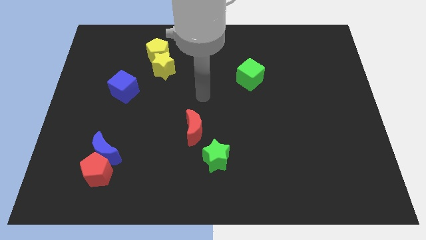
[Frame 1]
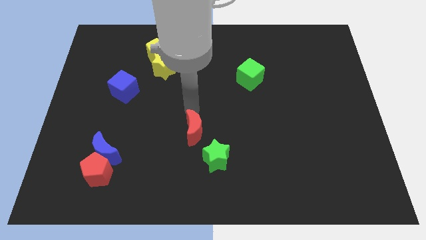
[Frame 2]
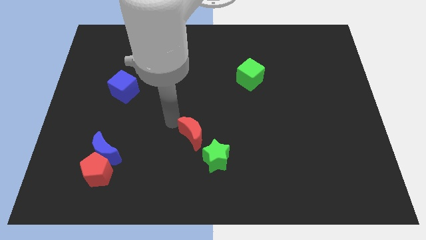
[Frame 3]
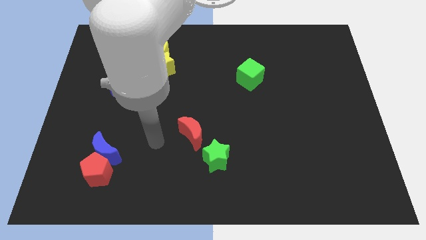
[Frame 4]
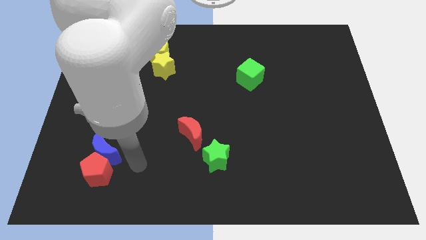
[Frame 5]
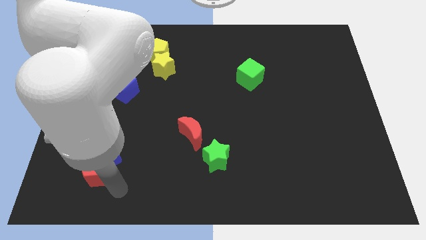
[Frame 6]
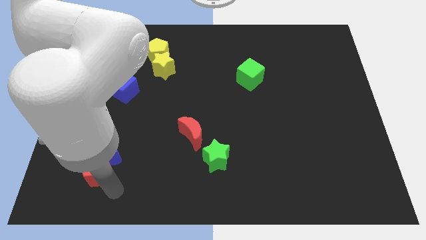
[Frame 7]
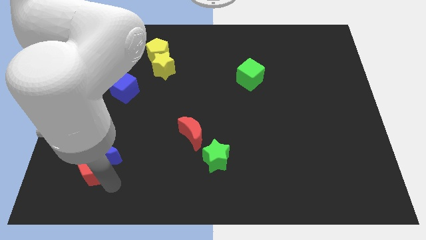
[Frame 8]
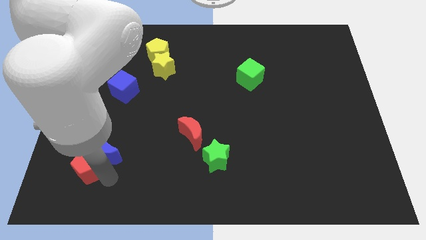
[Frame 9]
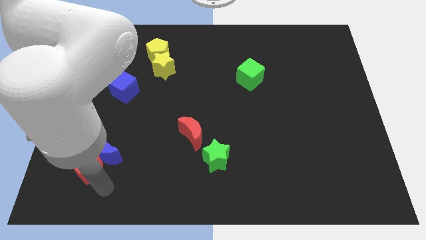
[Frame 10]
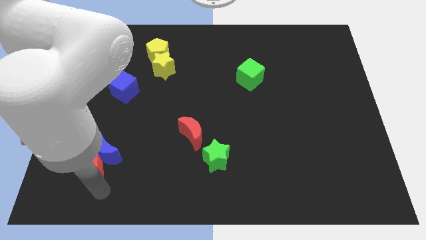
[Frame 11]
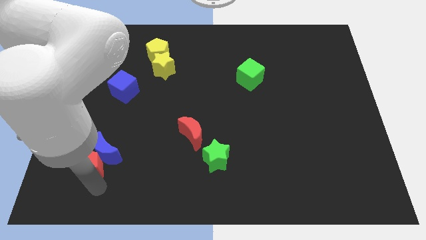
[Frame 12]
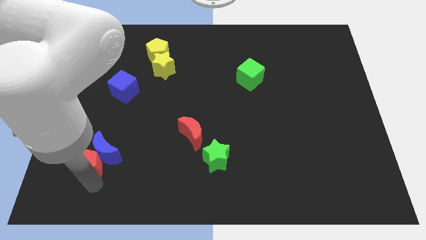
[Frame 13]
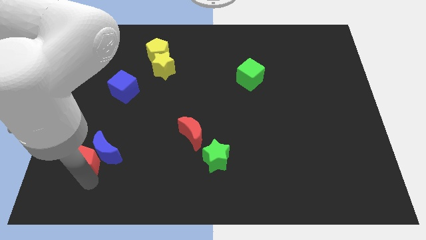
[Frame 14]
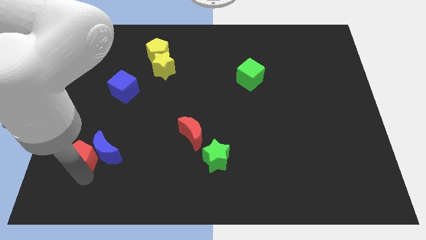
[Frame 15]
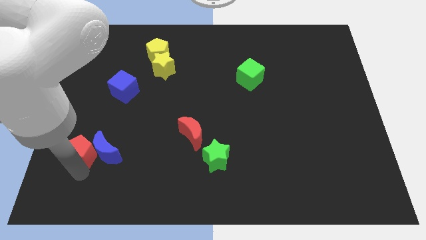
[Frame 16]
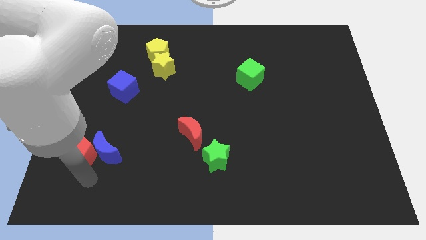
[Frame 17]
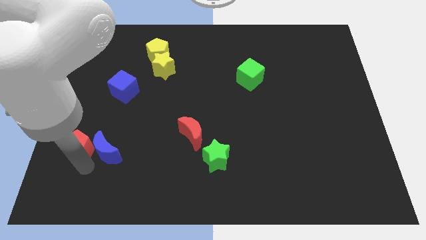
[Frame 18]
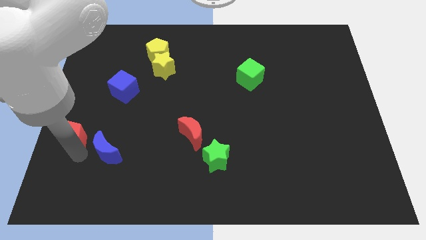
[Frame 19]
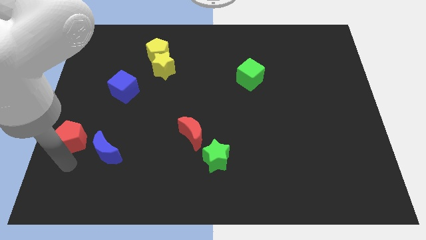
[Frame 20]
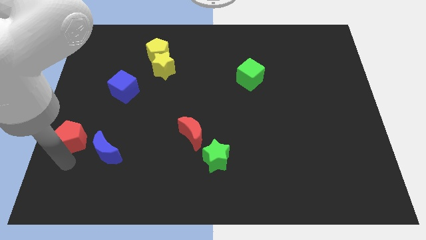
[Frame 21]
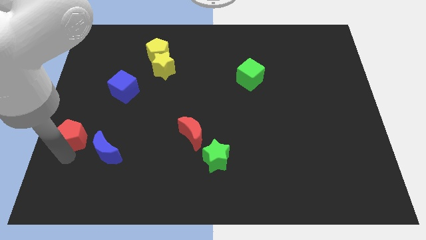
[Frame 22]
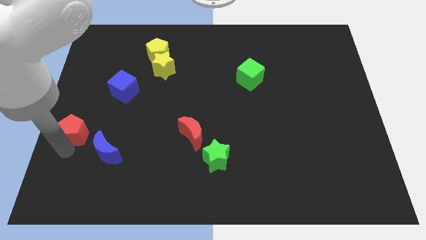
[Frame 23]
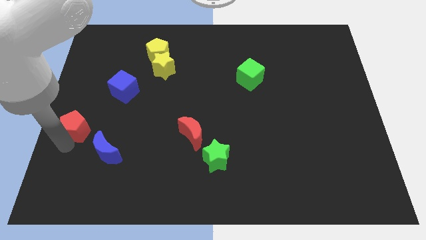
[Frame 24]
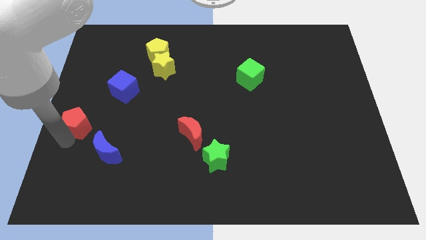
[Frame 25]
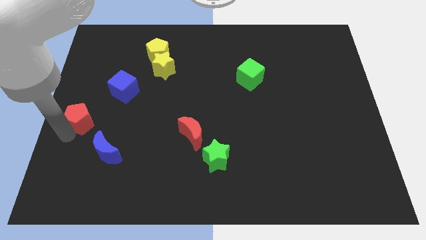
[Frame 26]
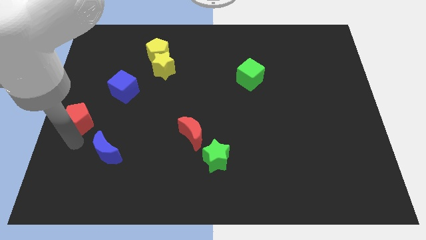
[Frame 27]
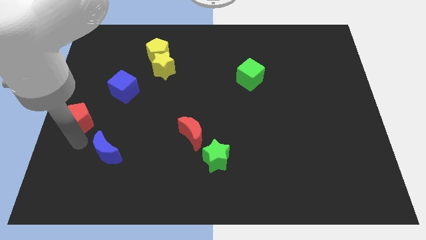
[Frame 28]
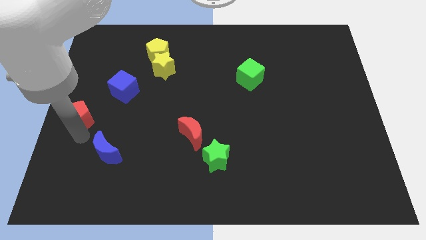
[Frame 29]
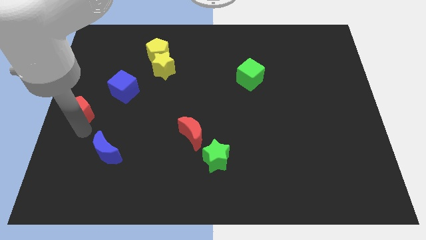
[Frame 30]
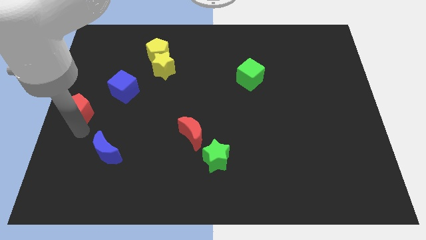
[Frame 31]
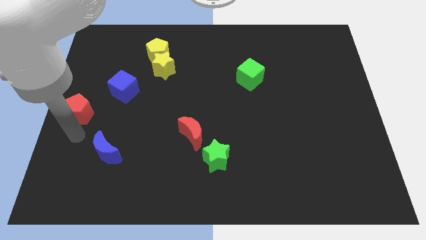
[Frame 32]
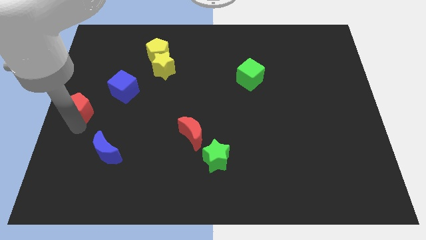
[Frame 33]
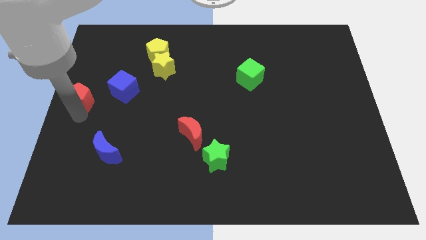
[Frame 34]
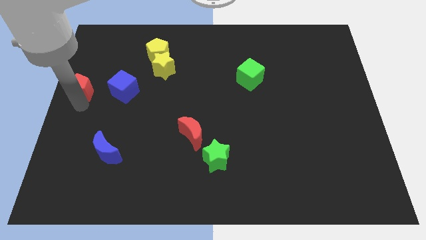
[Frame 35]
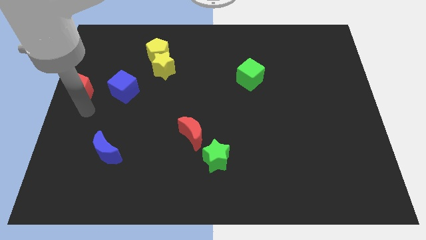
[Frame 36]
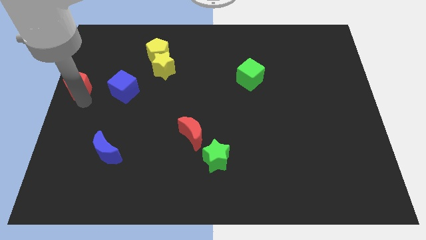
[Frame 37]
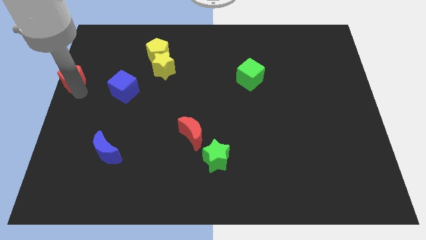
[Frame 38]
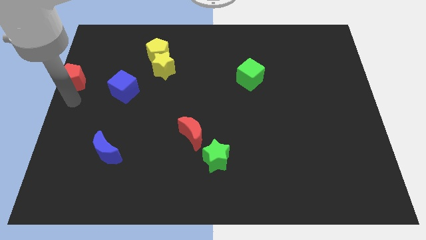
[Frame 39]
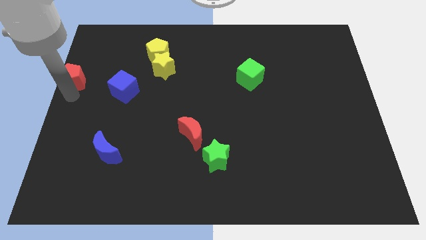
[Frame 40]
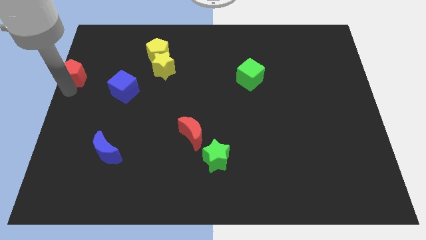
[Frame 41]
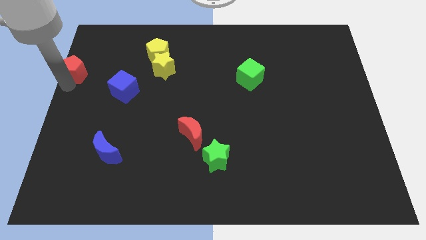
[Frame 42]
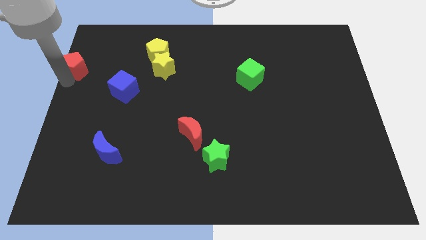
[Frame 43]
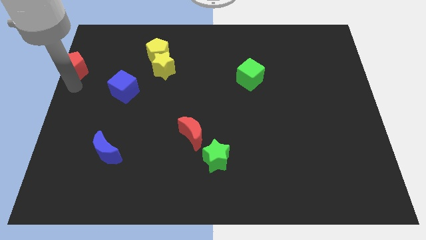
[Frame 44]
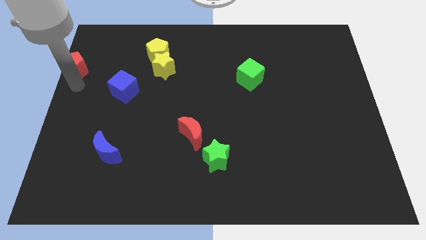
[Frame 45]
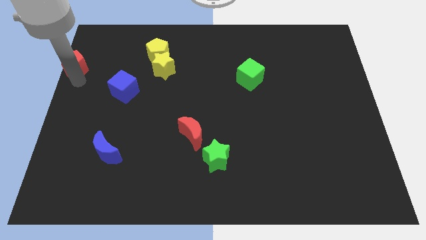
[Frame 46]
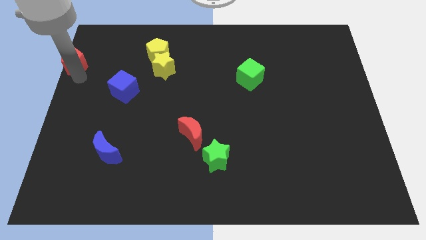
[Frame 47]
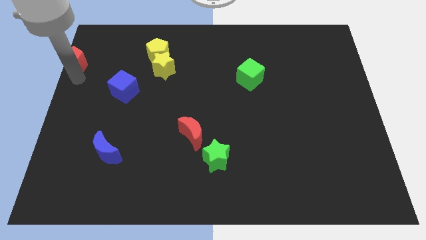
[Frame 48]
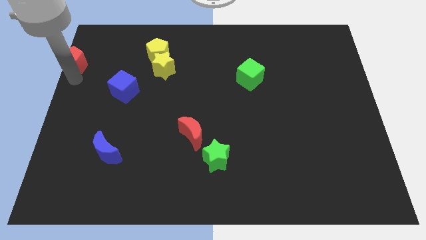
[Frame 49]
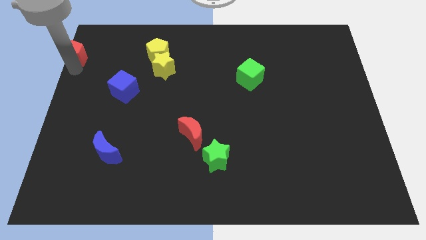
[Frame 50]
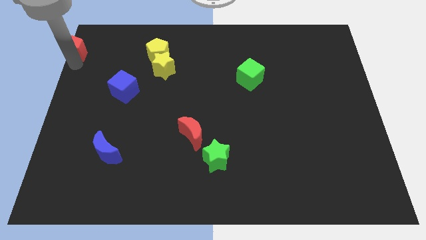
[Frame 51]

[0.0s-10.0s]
push the red pentagon to the top left

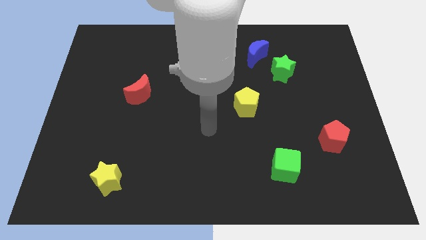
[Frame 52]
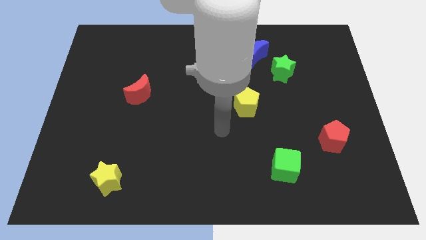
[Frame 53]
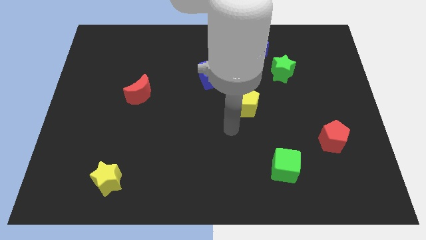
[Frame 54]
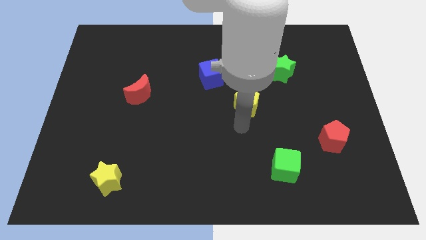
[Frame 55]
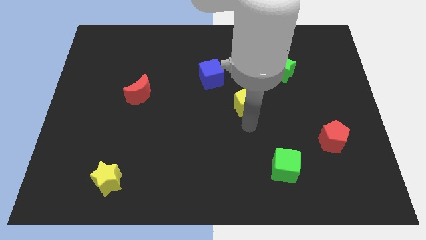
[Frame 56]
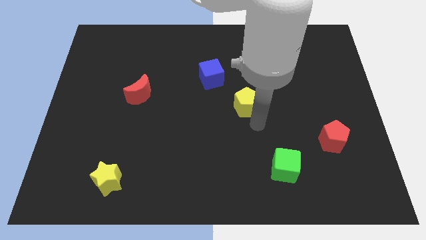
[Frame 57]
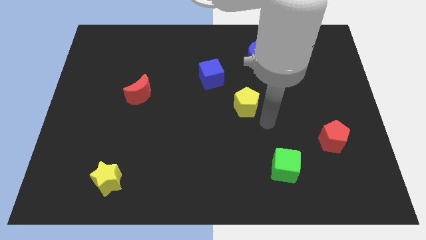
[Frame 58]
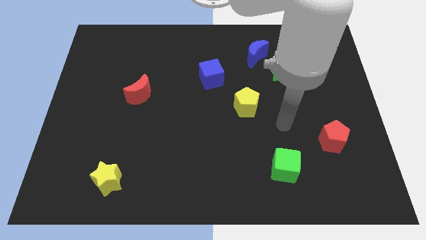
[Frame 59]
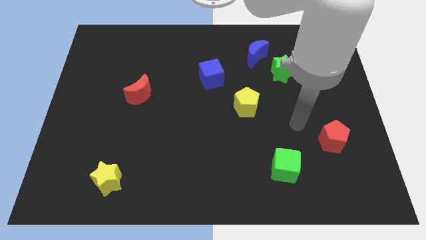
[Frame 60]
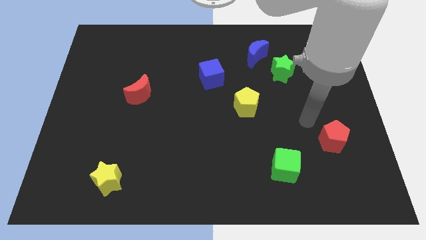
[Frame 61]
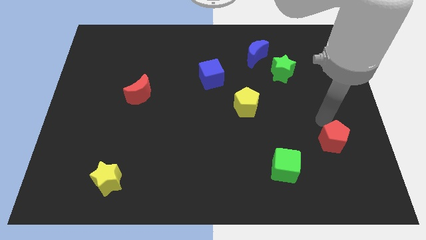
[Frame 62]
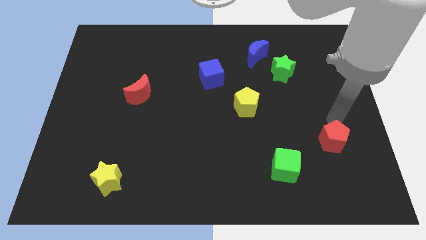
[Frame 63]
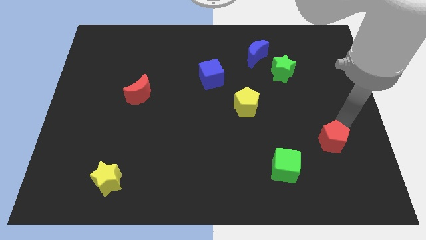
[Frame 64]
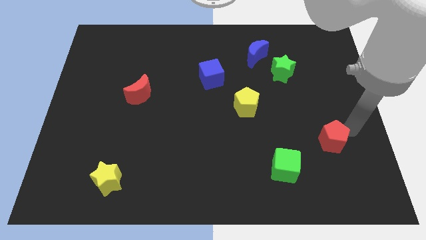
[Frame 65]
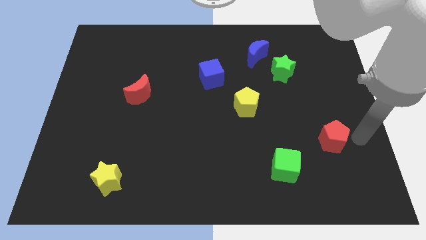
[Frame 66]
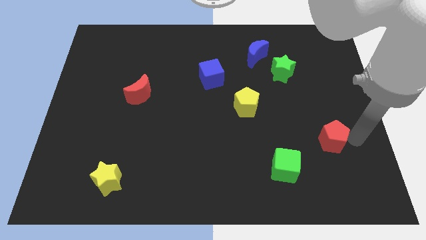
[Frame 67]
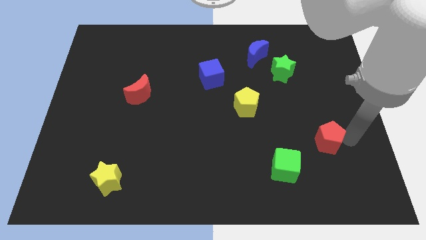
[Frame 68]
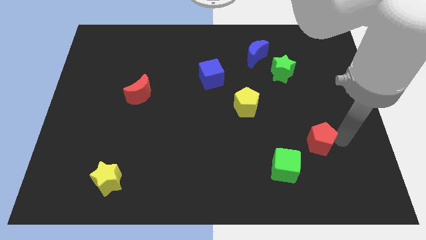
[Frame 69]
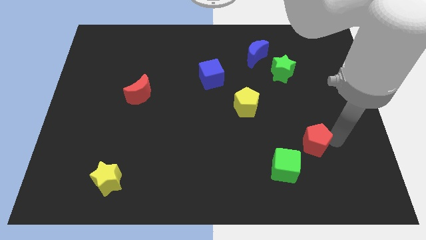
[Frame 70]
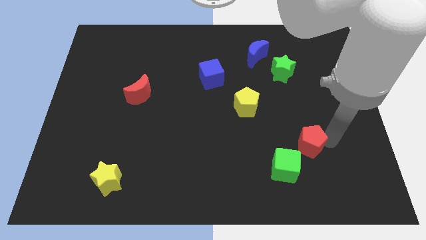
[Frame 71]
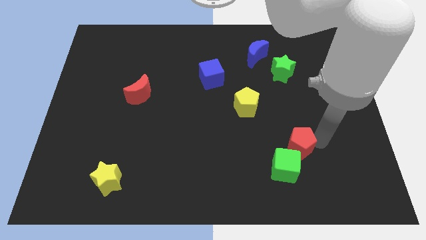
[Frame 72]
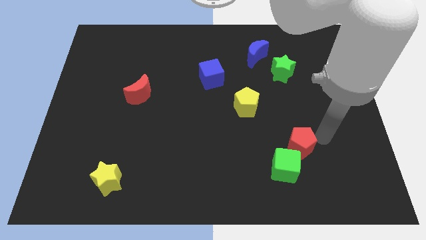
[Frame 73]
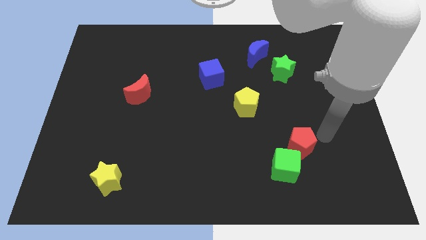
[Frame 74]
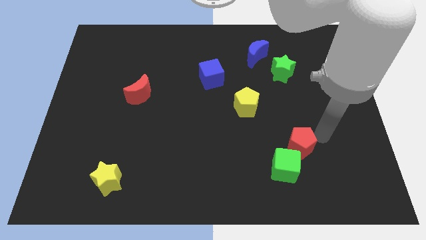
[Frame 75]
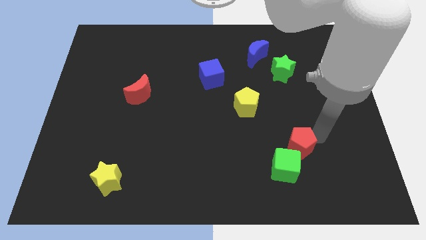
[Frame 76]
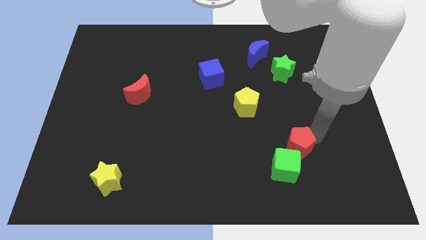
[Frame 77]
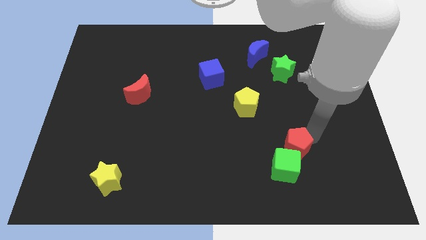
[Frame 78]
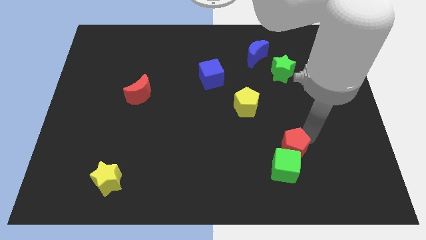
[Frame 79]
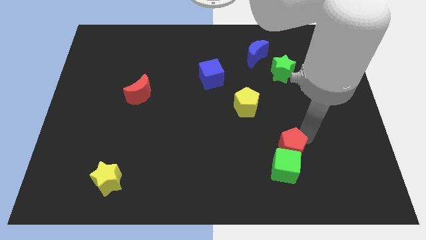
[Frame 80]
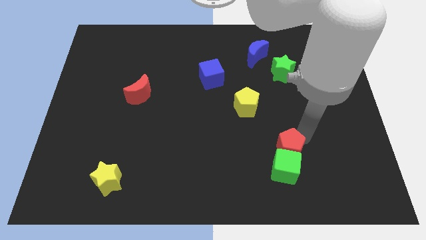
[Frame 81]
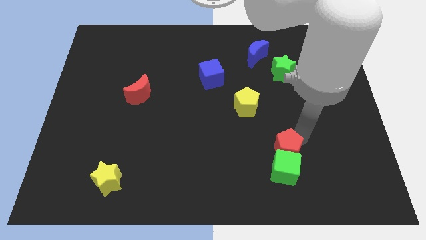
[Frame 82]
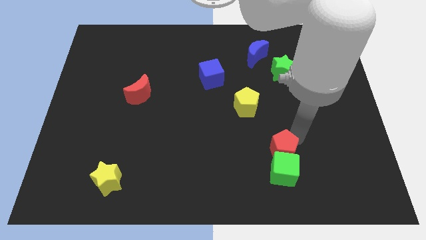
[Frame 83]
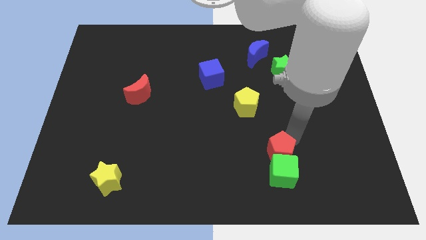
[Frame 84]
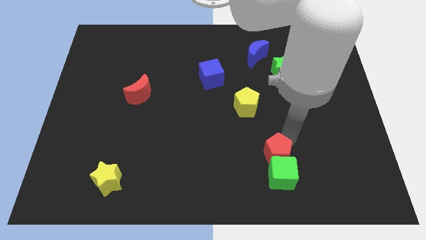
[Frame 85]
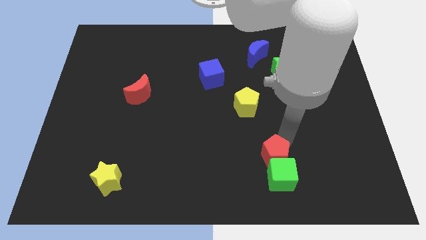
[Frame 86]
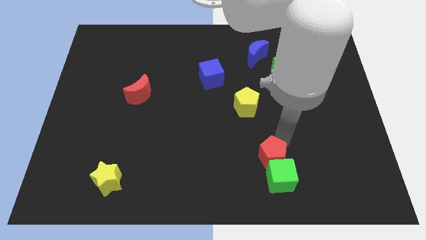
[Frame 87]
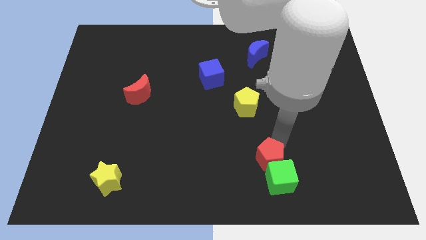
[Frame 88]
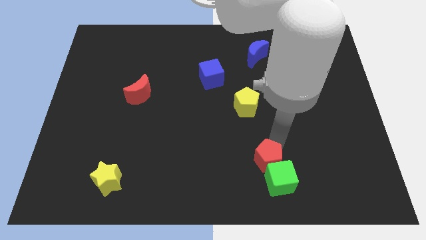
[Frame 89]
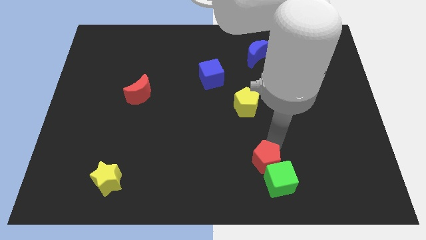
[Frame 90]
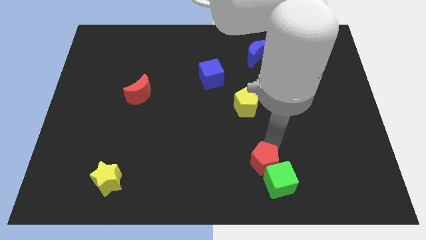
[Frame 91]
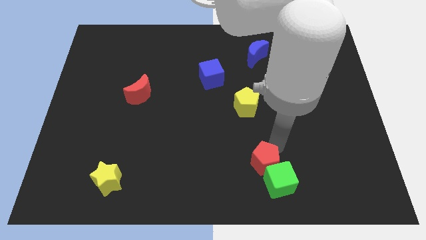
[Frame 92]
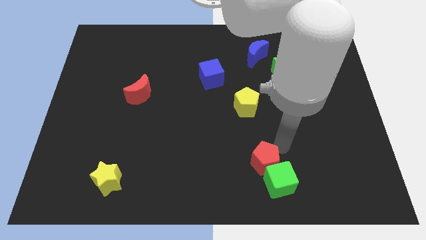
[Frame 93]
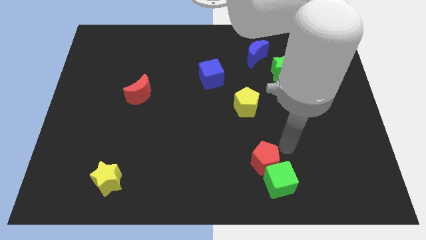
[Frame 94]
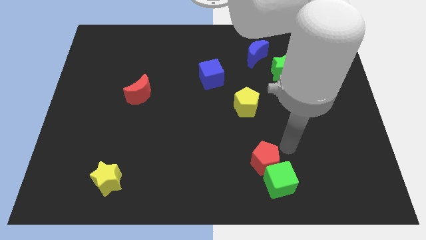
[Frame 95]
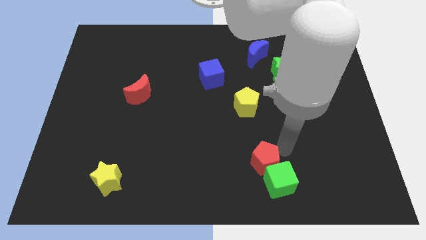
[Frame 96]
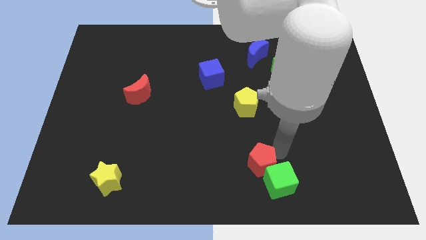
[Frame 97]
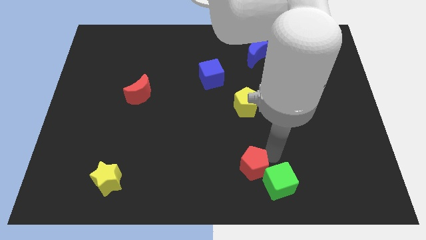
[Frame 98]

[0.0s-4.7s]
move the red pentagon to the bottom side
